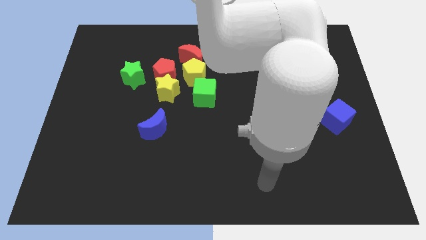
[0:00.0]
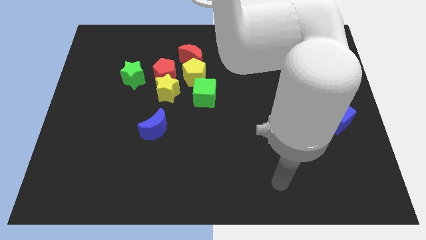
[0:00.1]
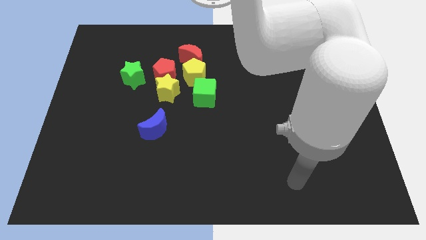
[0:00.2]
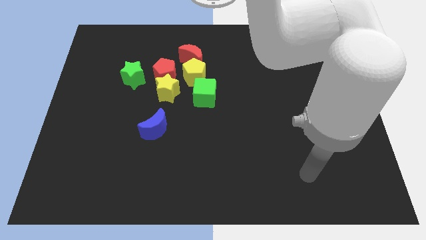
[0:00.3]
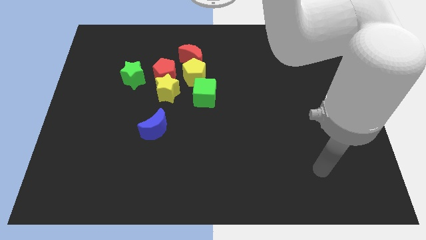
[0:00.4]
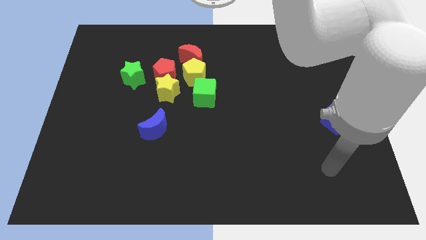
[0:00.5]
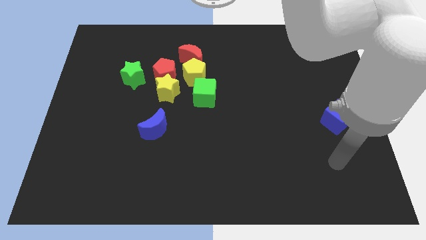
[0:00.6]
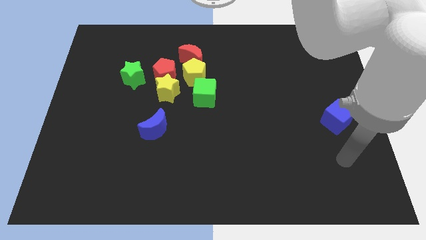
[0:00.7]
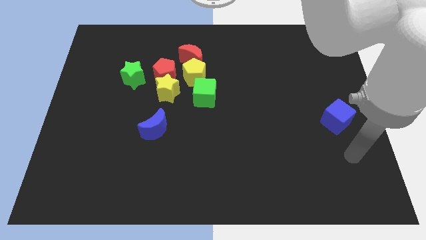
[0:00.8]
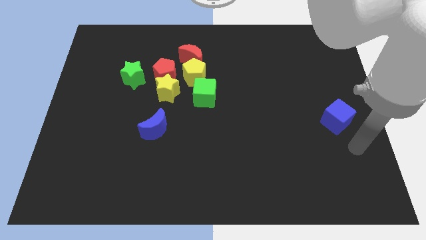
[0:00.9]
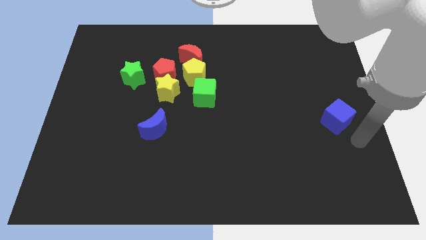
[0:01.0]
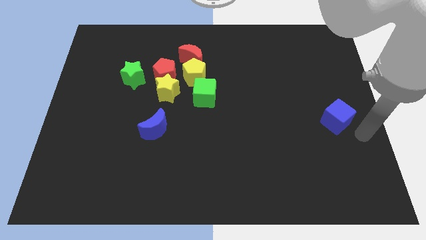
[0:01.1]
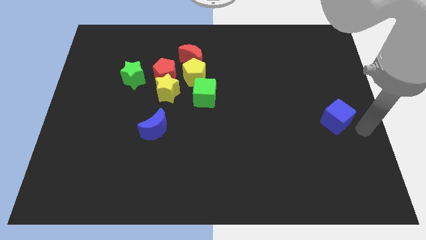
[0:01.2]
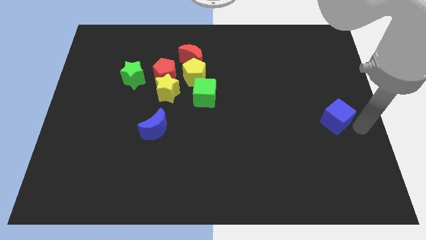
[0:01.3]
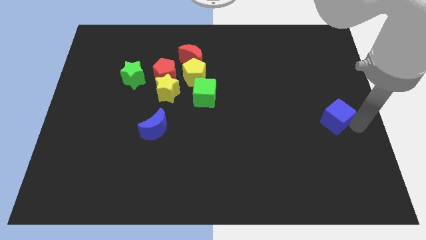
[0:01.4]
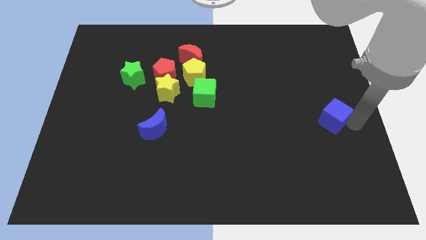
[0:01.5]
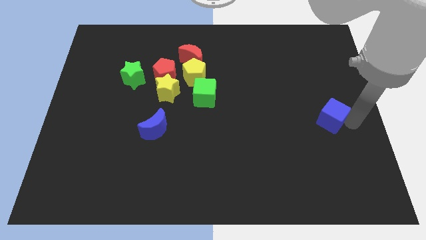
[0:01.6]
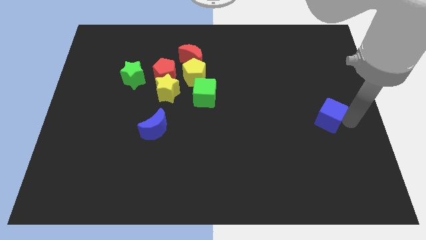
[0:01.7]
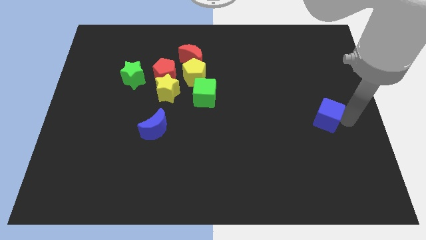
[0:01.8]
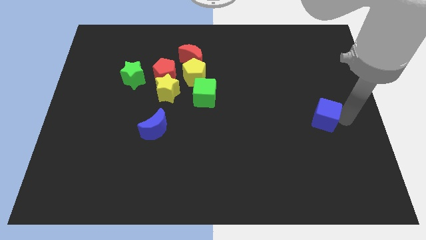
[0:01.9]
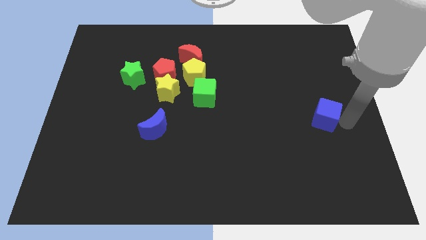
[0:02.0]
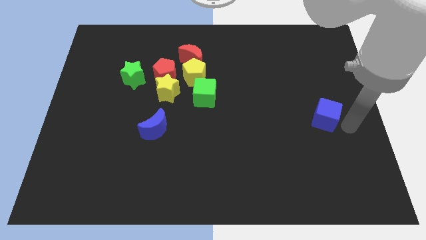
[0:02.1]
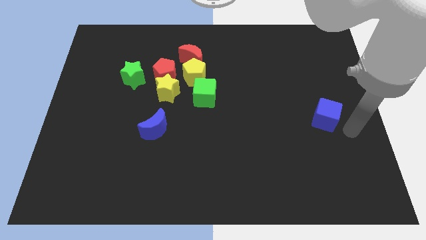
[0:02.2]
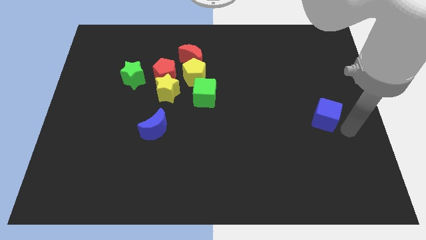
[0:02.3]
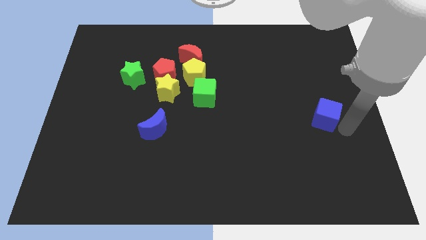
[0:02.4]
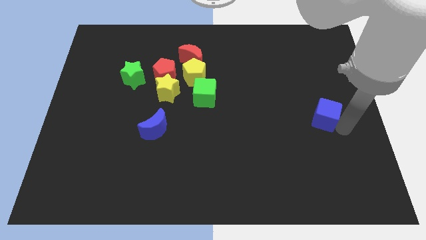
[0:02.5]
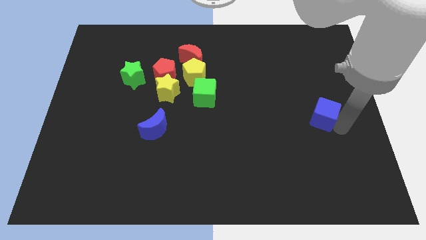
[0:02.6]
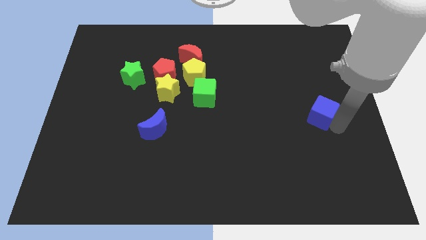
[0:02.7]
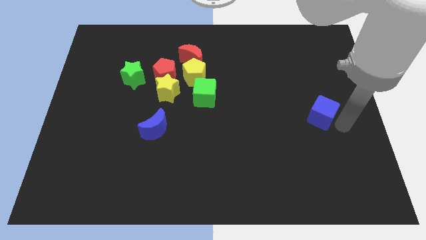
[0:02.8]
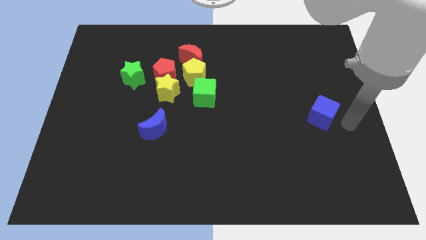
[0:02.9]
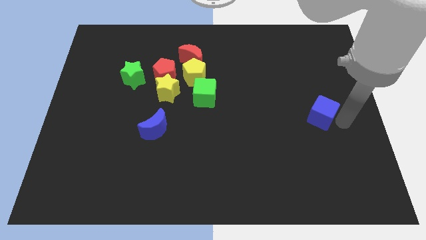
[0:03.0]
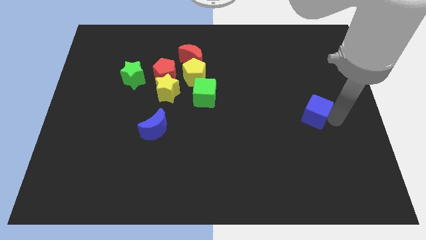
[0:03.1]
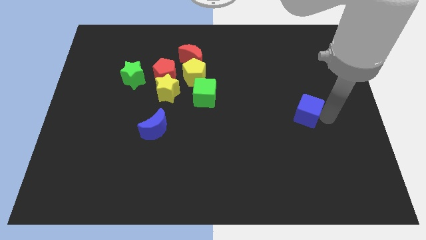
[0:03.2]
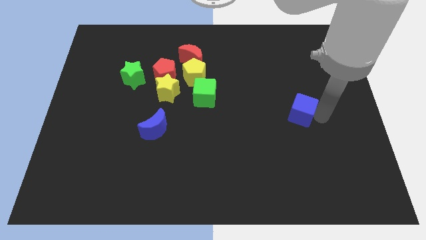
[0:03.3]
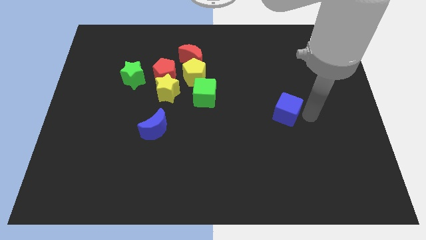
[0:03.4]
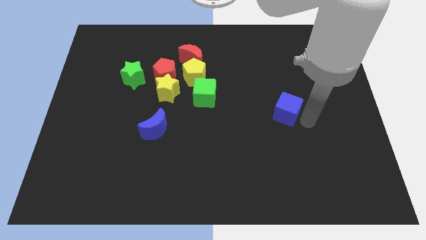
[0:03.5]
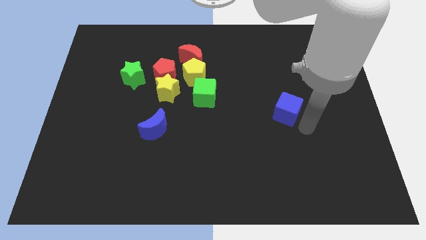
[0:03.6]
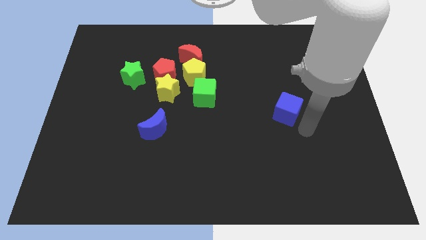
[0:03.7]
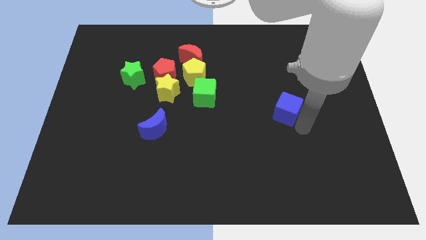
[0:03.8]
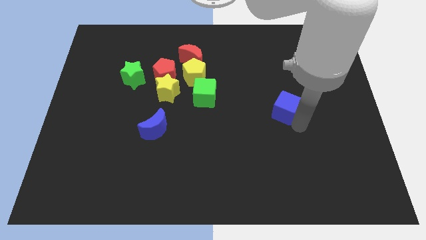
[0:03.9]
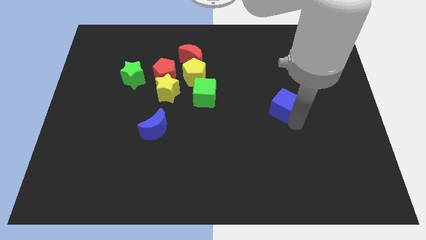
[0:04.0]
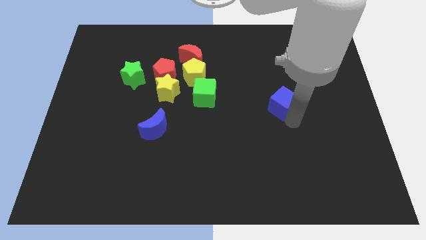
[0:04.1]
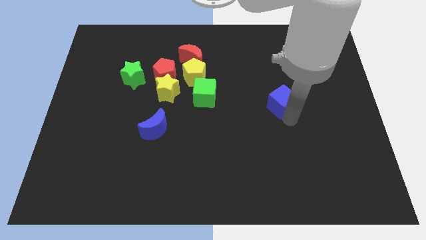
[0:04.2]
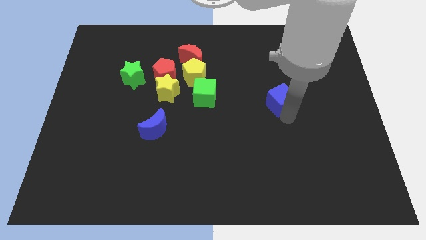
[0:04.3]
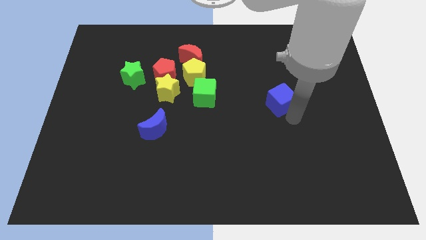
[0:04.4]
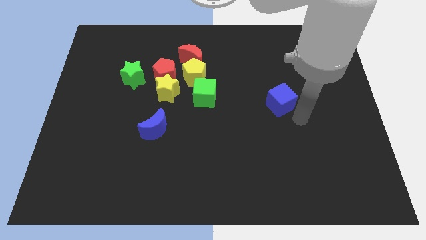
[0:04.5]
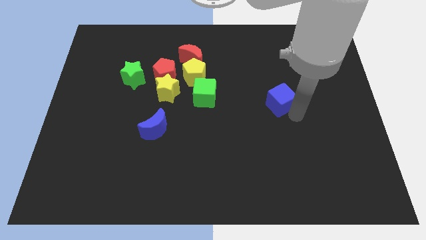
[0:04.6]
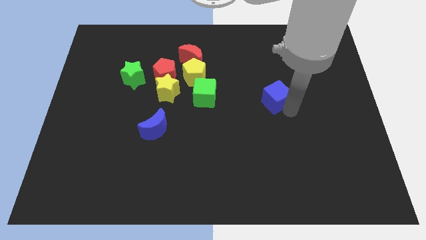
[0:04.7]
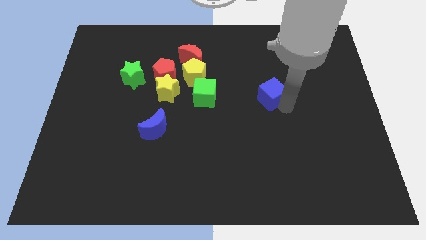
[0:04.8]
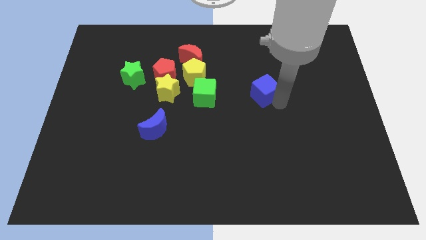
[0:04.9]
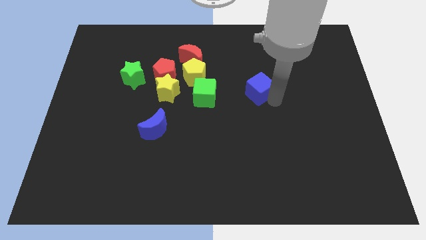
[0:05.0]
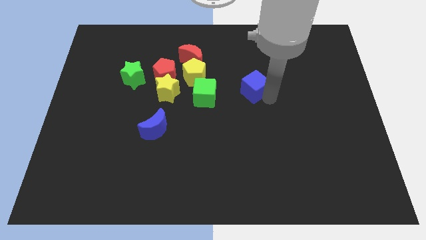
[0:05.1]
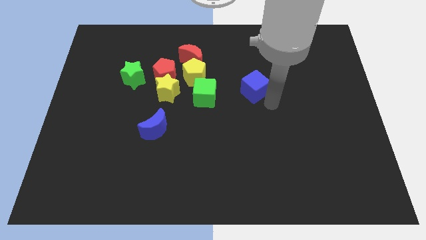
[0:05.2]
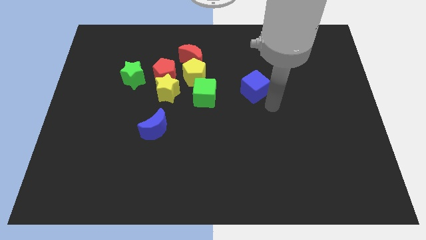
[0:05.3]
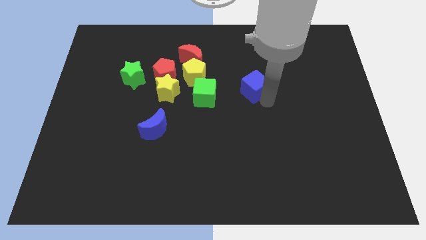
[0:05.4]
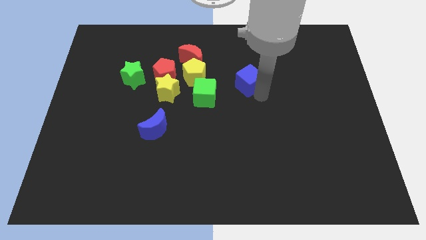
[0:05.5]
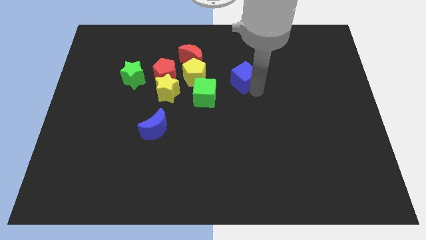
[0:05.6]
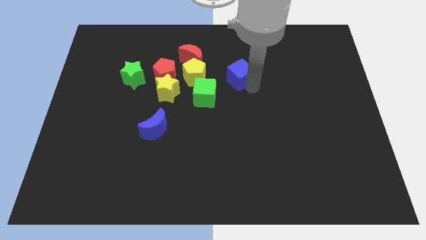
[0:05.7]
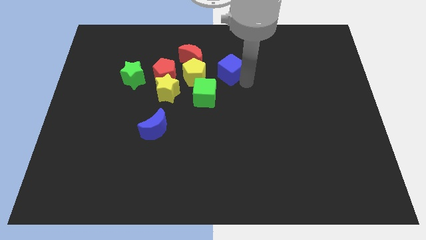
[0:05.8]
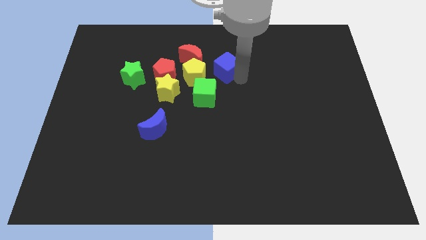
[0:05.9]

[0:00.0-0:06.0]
move the blue cube to the top right side of the yellow pentagon
